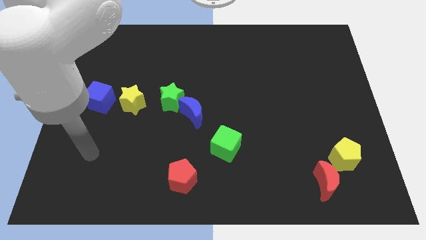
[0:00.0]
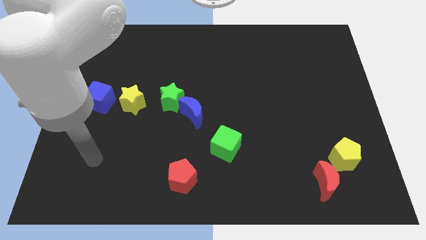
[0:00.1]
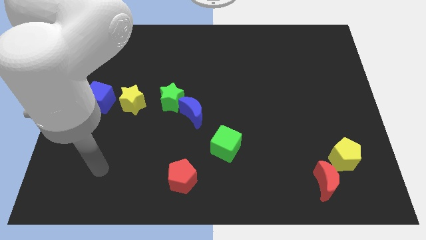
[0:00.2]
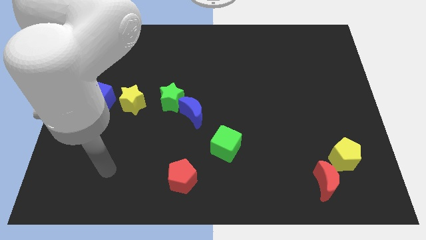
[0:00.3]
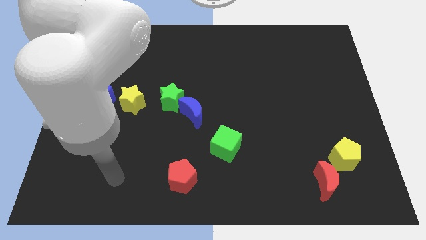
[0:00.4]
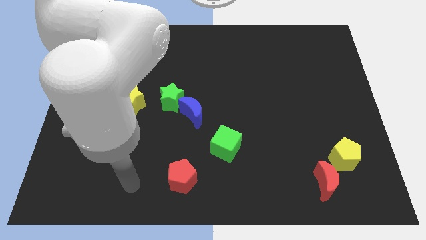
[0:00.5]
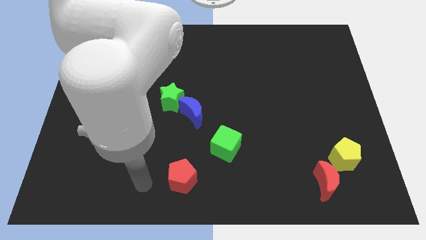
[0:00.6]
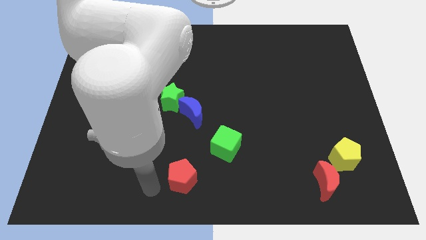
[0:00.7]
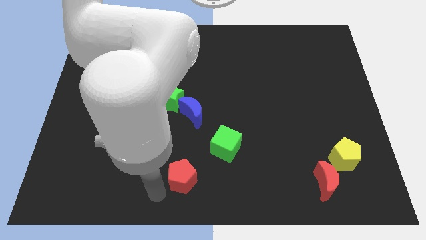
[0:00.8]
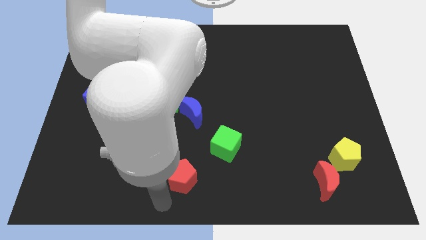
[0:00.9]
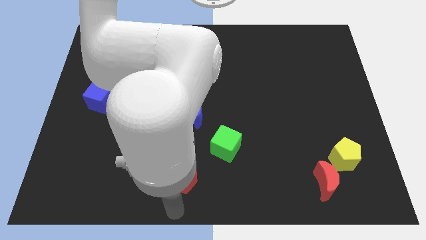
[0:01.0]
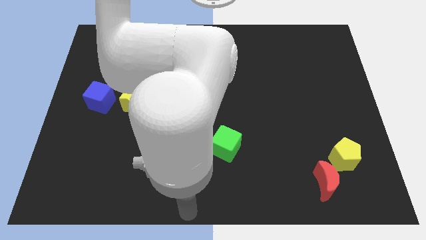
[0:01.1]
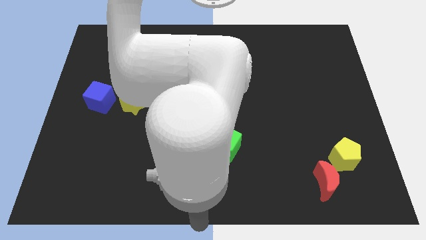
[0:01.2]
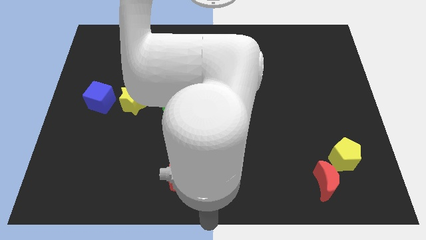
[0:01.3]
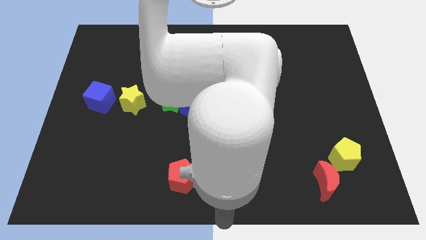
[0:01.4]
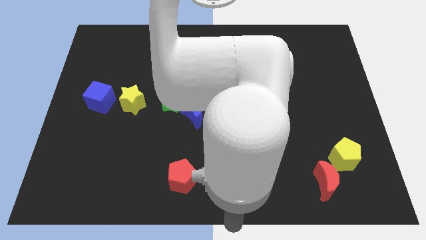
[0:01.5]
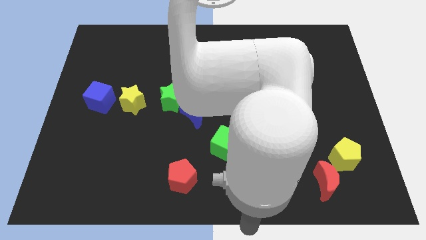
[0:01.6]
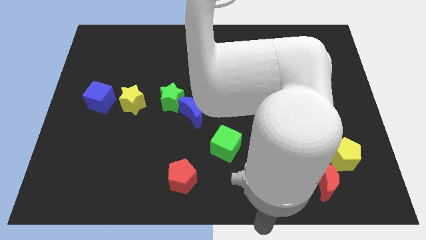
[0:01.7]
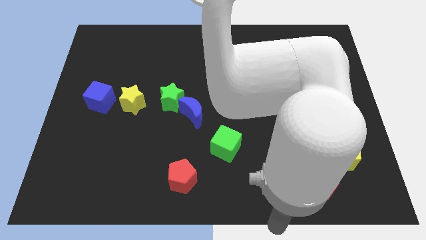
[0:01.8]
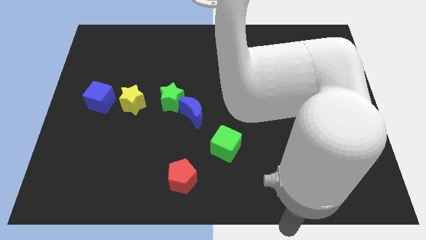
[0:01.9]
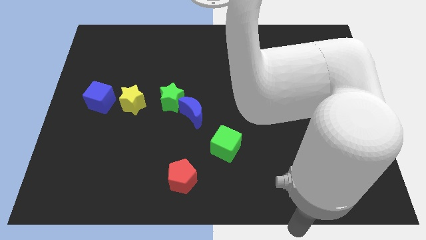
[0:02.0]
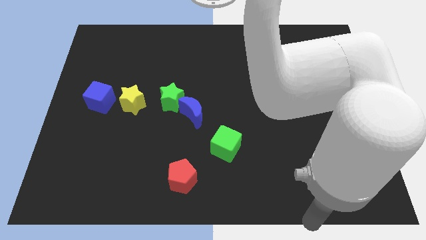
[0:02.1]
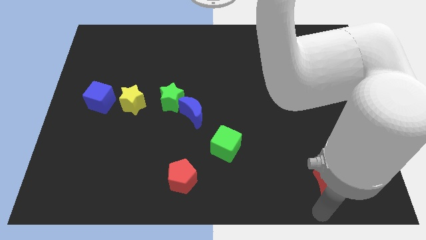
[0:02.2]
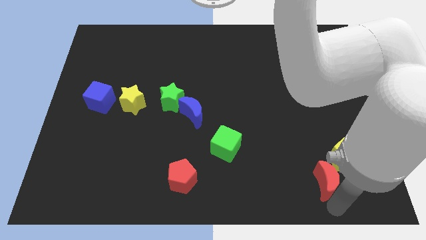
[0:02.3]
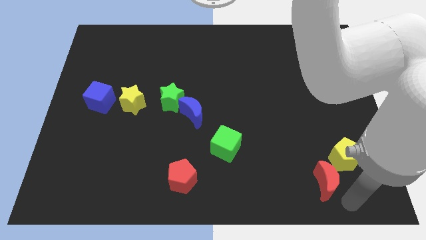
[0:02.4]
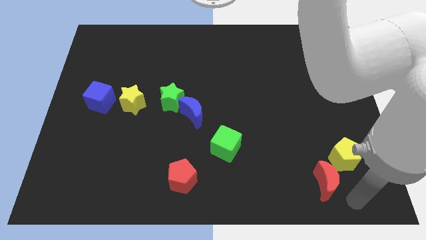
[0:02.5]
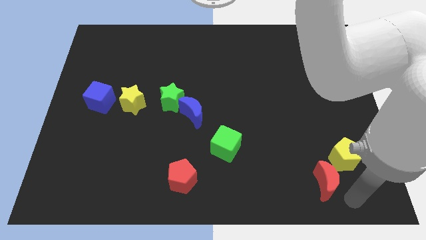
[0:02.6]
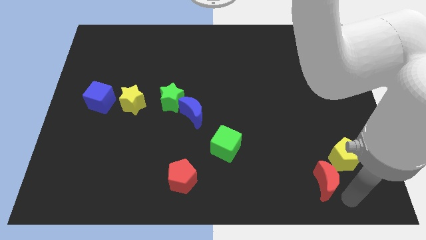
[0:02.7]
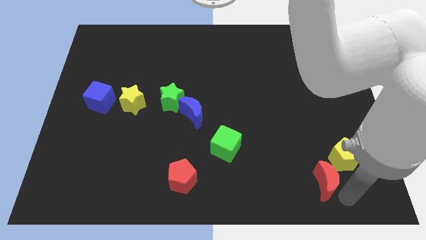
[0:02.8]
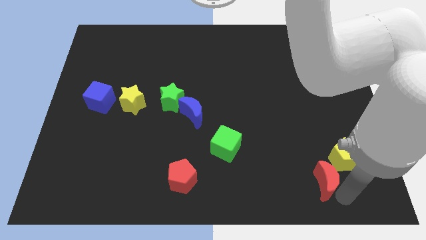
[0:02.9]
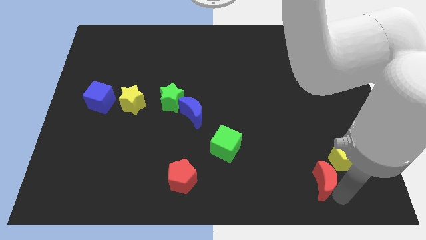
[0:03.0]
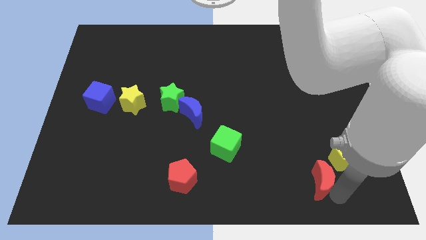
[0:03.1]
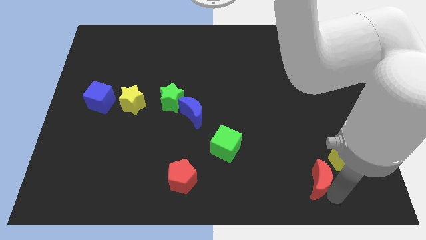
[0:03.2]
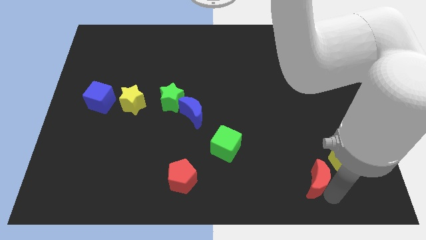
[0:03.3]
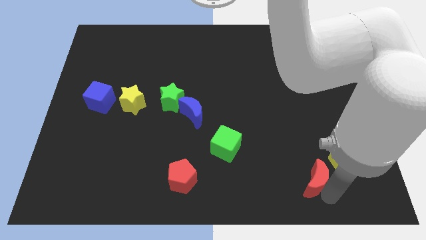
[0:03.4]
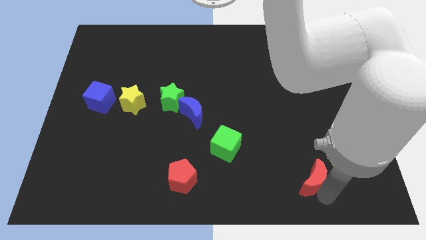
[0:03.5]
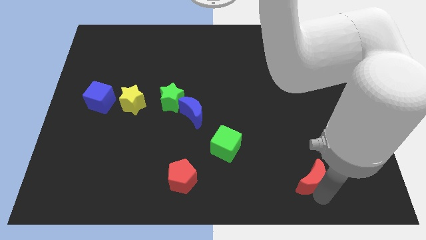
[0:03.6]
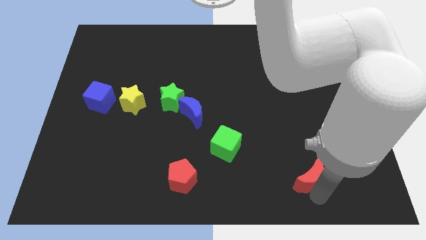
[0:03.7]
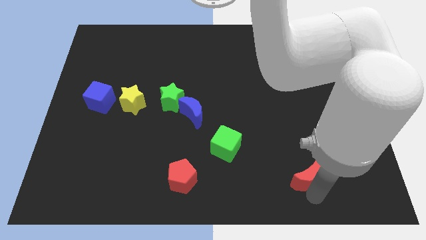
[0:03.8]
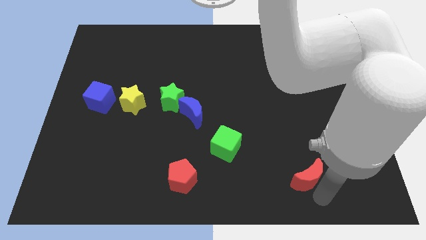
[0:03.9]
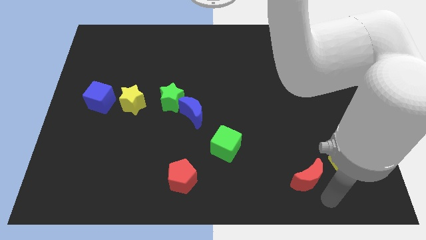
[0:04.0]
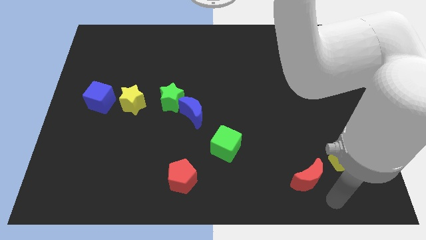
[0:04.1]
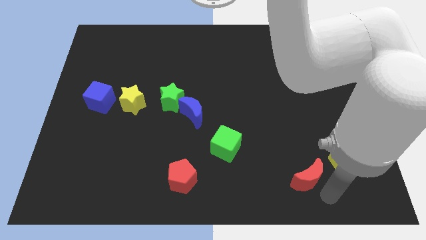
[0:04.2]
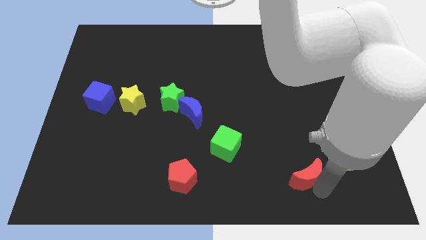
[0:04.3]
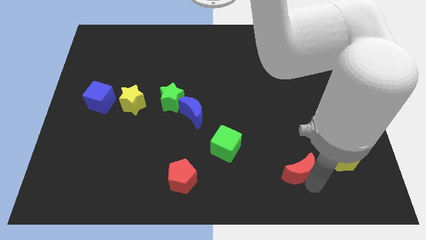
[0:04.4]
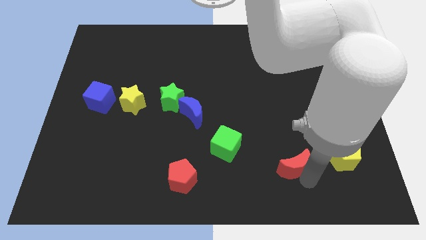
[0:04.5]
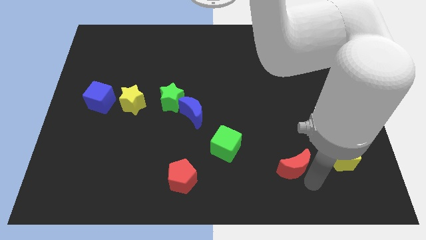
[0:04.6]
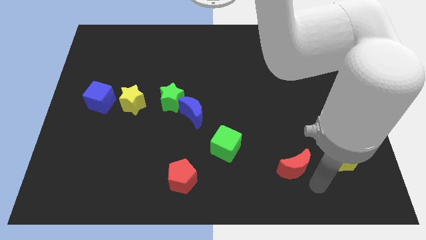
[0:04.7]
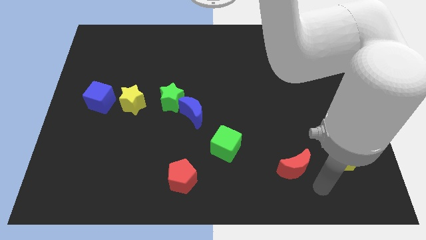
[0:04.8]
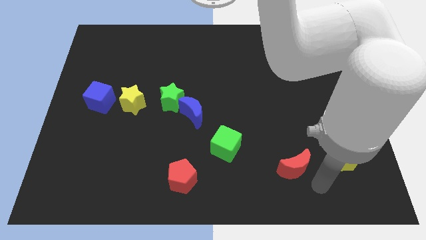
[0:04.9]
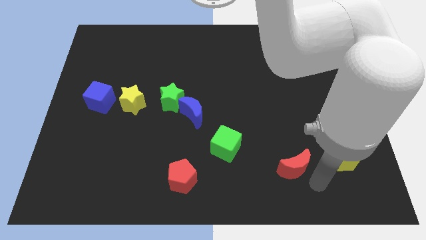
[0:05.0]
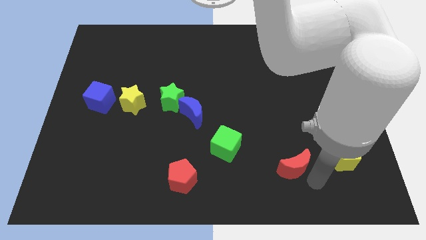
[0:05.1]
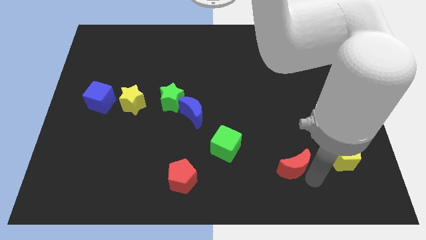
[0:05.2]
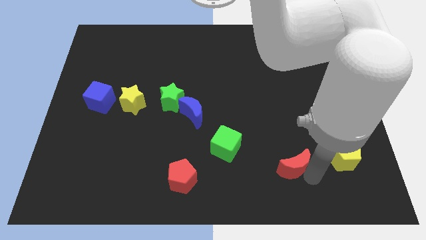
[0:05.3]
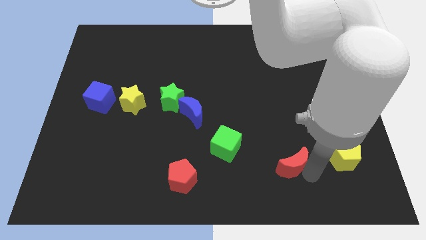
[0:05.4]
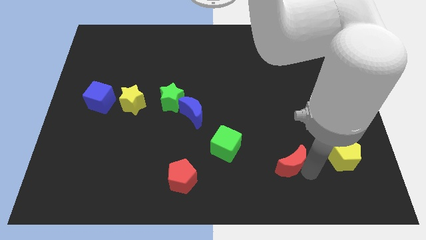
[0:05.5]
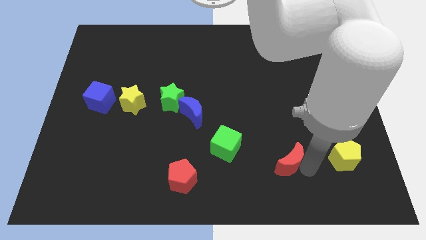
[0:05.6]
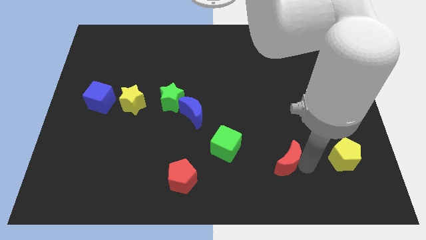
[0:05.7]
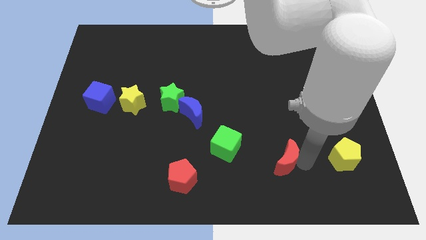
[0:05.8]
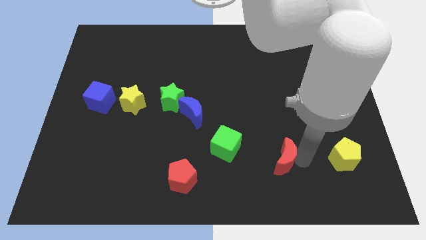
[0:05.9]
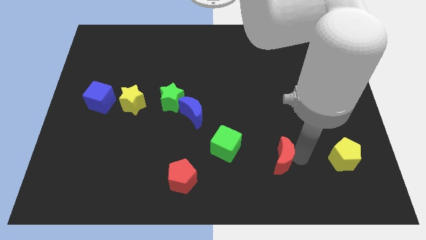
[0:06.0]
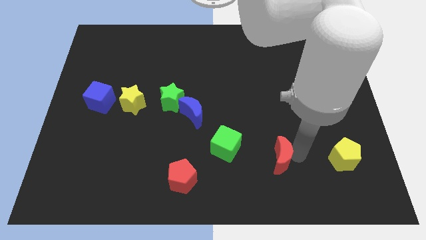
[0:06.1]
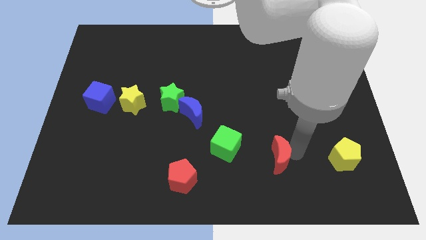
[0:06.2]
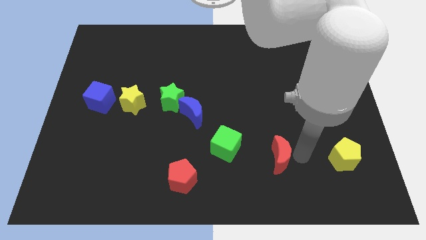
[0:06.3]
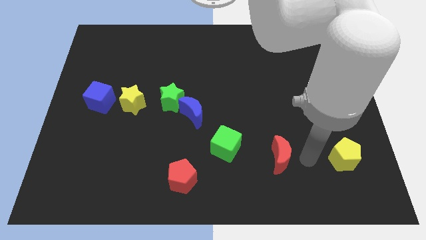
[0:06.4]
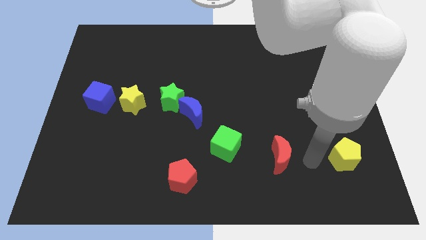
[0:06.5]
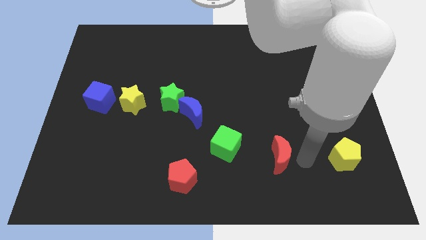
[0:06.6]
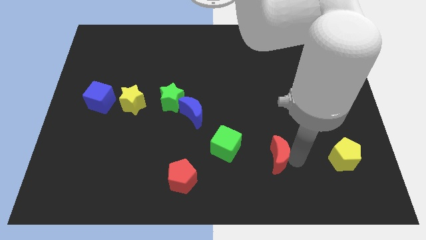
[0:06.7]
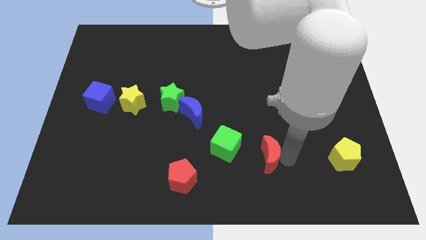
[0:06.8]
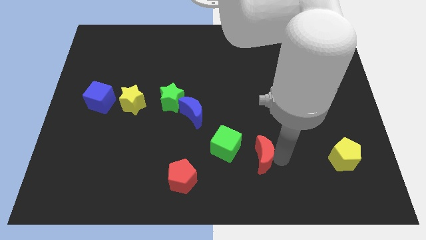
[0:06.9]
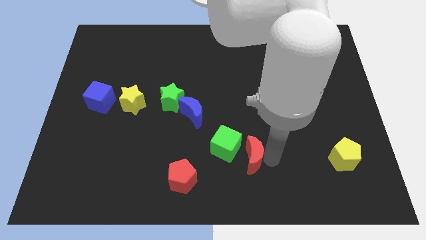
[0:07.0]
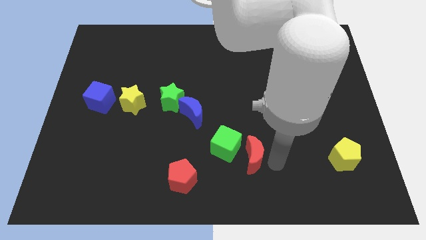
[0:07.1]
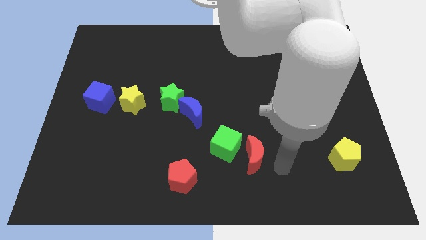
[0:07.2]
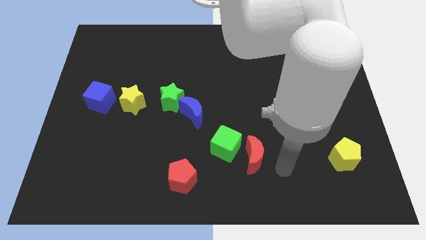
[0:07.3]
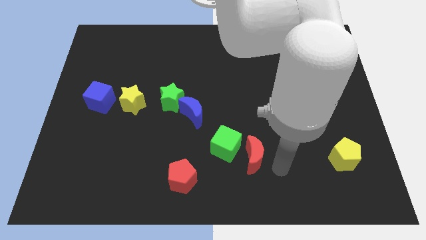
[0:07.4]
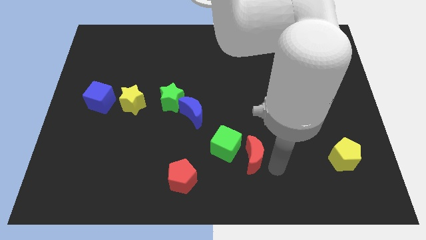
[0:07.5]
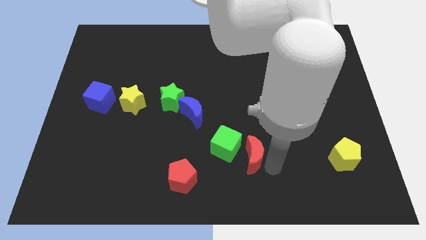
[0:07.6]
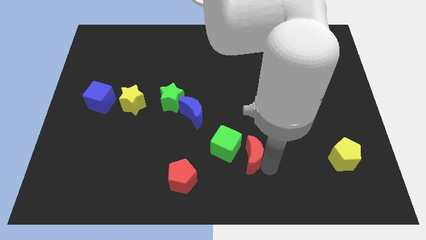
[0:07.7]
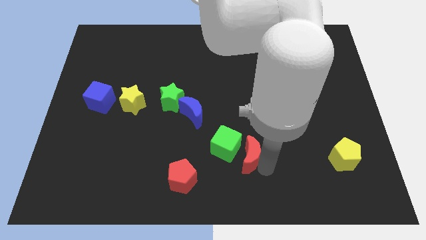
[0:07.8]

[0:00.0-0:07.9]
slide the red moon close to the green cube

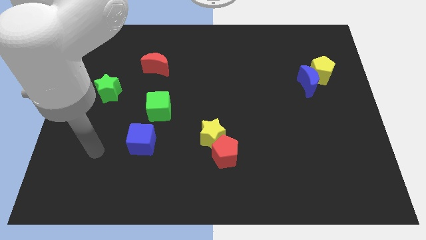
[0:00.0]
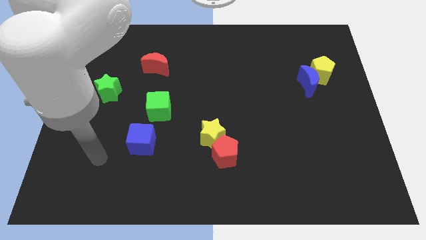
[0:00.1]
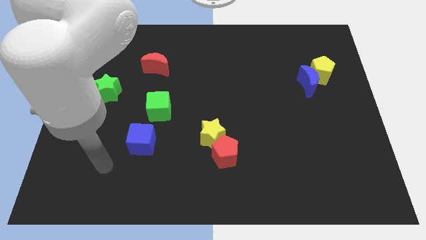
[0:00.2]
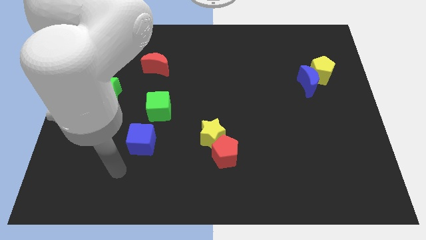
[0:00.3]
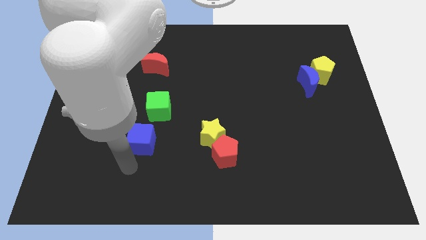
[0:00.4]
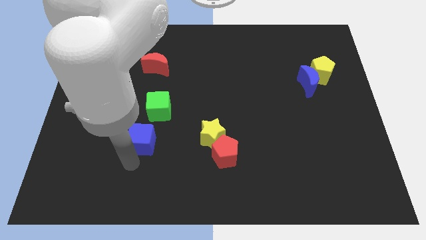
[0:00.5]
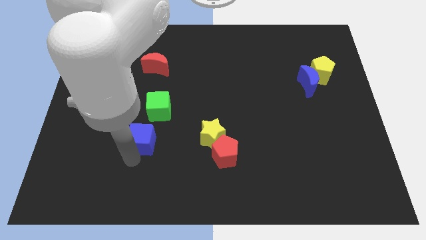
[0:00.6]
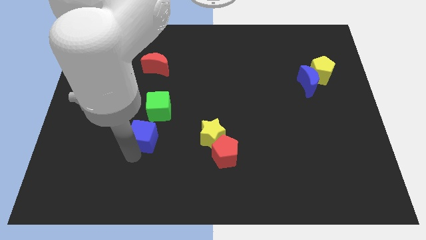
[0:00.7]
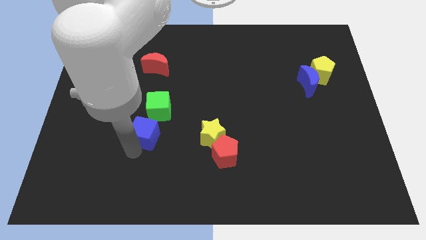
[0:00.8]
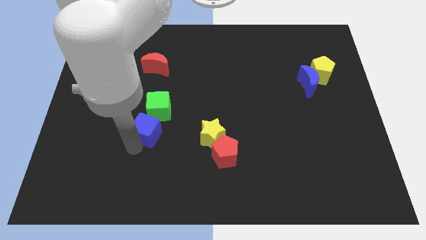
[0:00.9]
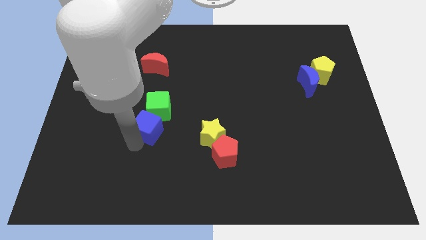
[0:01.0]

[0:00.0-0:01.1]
push the blue cube close to the green cube
